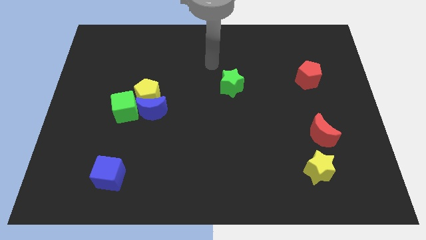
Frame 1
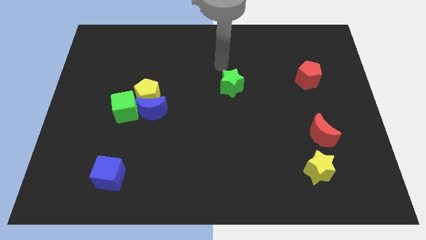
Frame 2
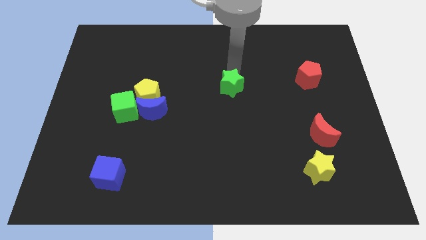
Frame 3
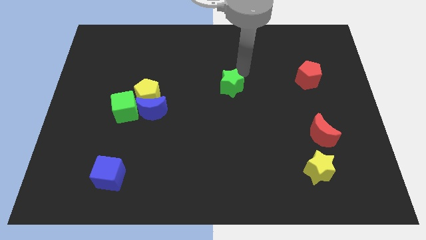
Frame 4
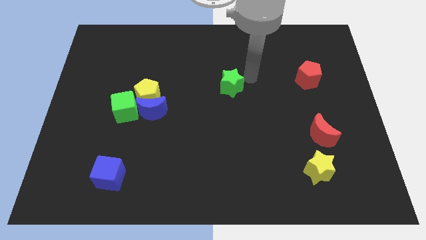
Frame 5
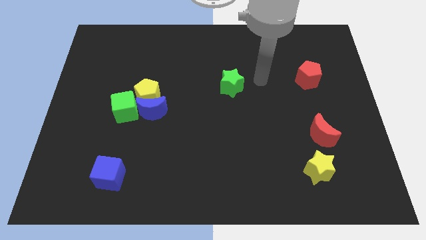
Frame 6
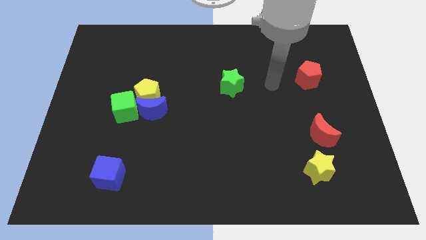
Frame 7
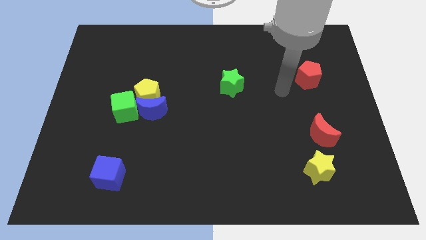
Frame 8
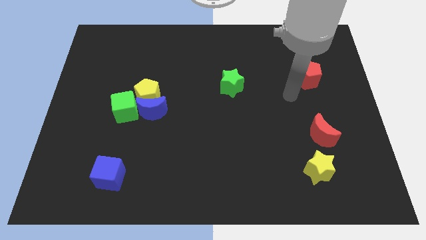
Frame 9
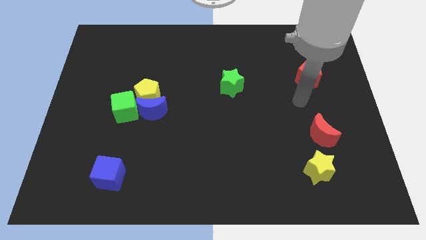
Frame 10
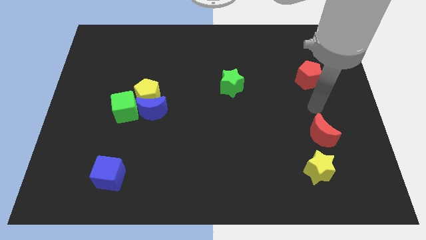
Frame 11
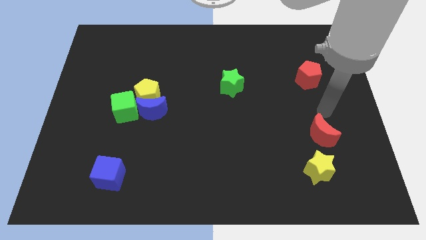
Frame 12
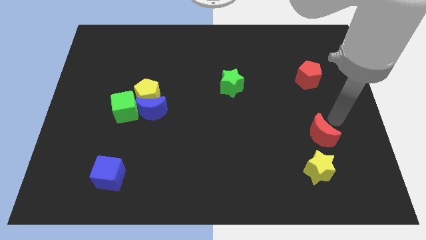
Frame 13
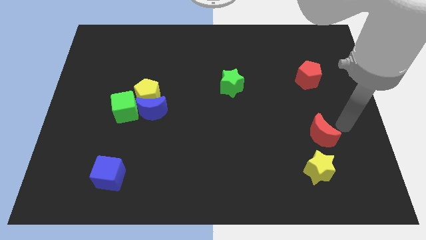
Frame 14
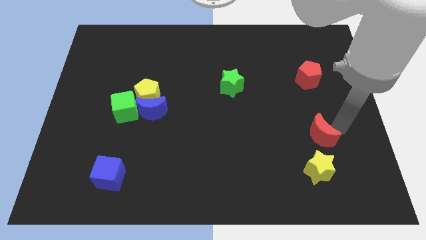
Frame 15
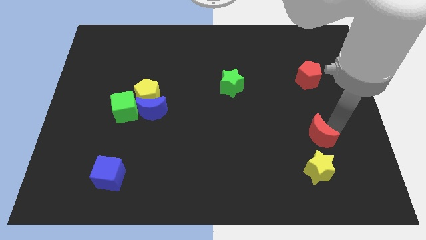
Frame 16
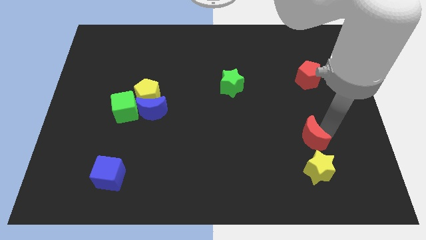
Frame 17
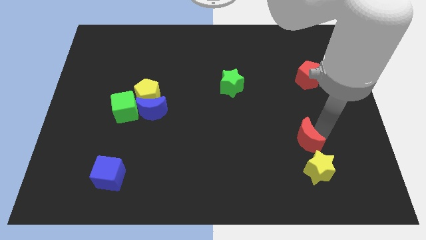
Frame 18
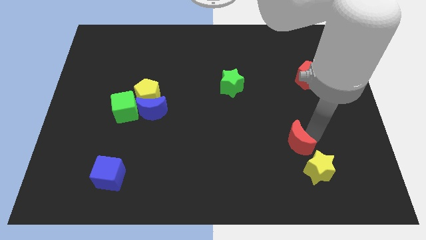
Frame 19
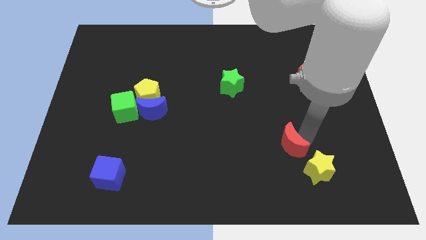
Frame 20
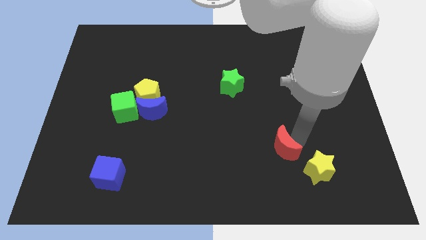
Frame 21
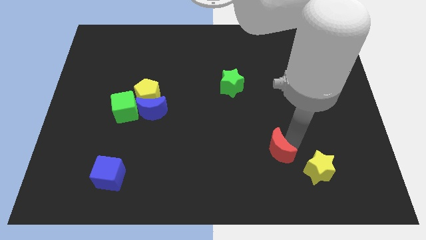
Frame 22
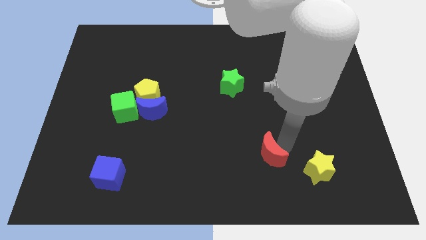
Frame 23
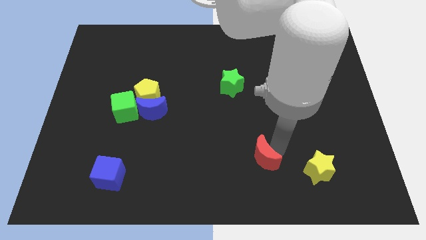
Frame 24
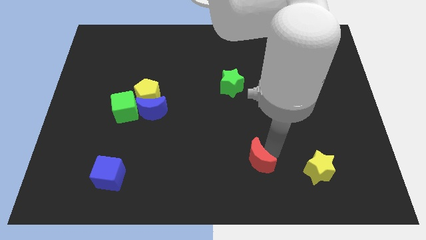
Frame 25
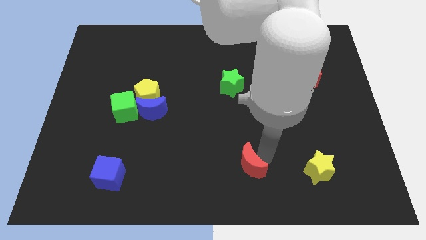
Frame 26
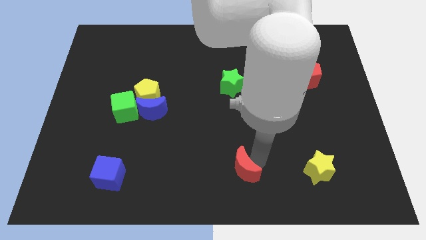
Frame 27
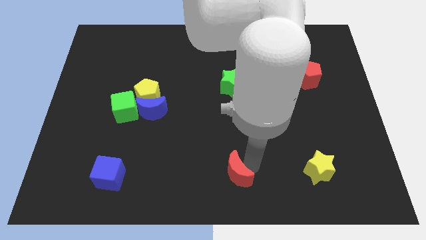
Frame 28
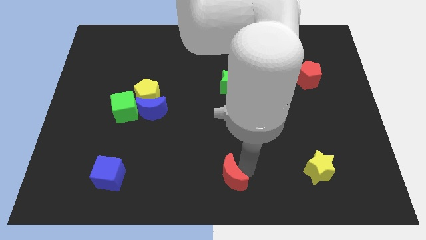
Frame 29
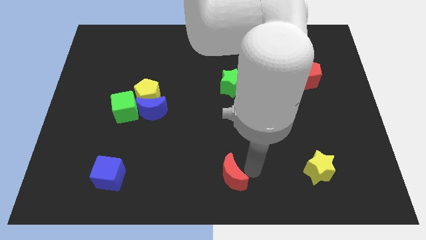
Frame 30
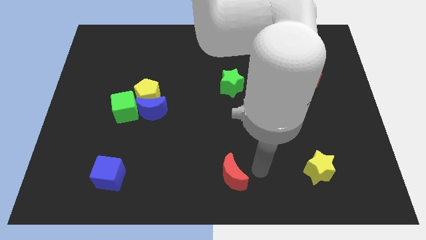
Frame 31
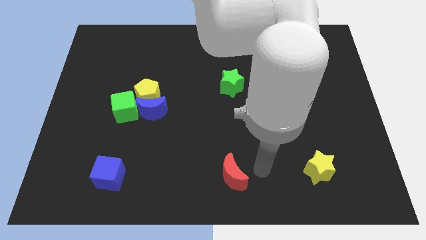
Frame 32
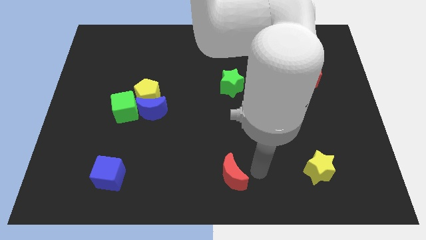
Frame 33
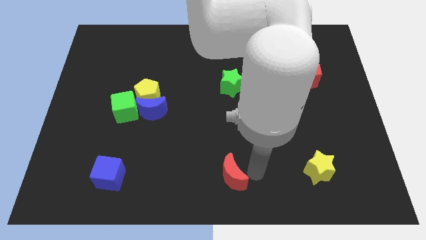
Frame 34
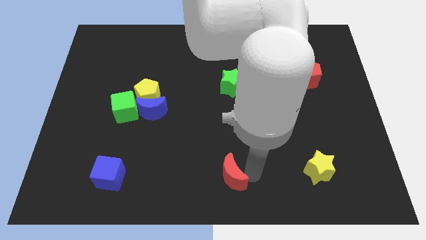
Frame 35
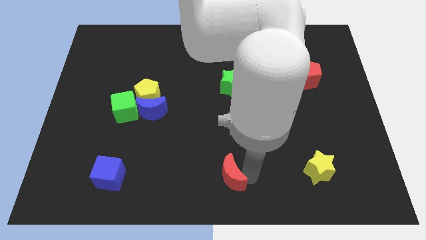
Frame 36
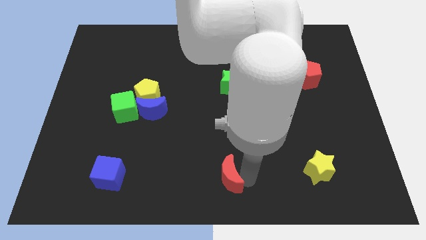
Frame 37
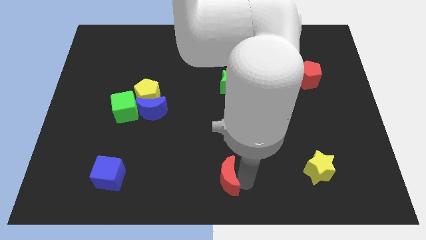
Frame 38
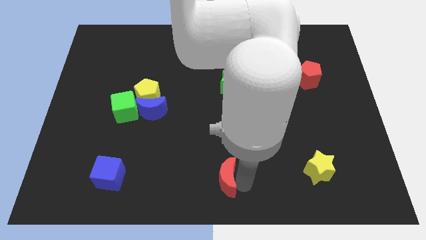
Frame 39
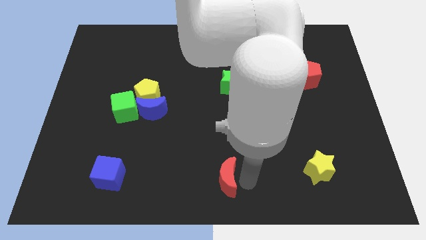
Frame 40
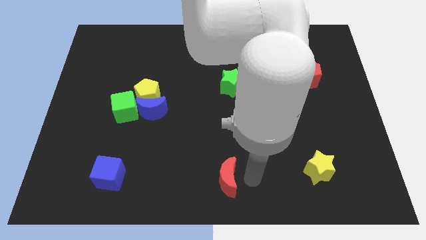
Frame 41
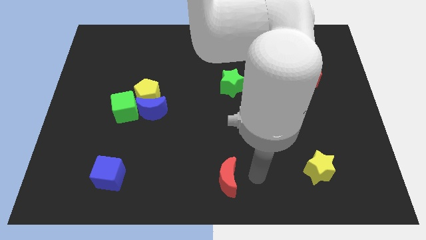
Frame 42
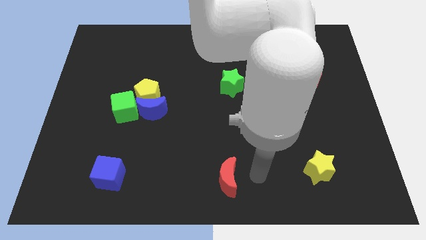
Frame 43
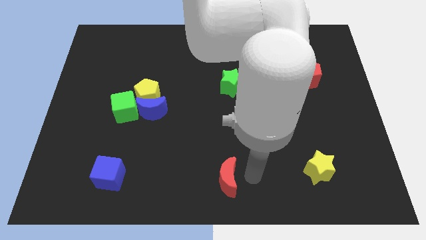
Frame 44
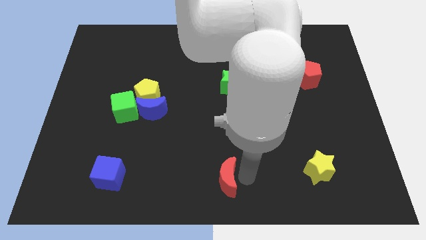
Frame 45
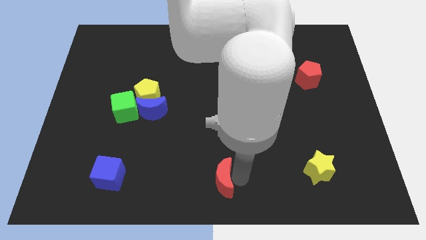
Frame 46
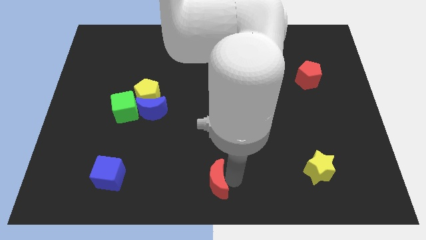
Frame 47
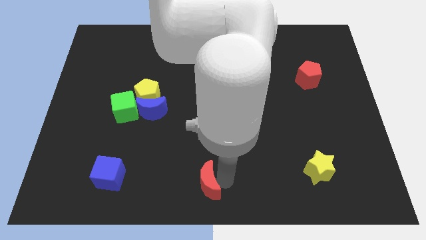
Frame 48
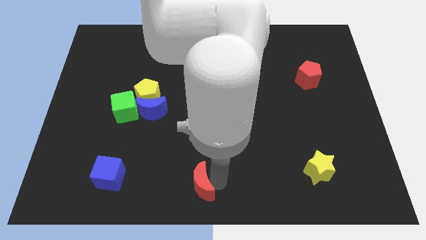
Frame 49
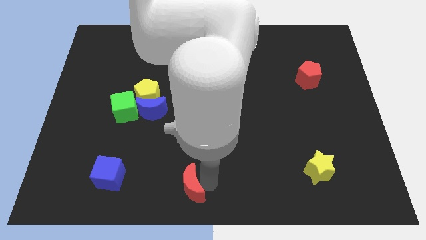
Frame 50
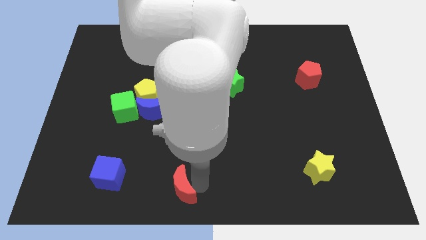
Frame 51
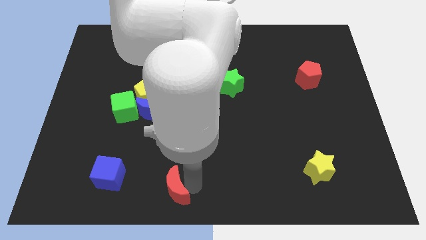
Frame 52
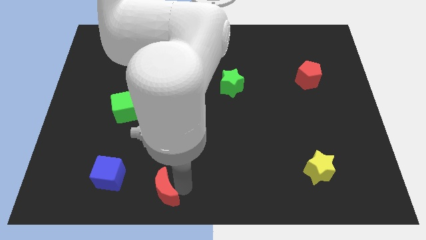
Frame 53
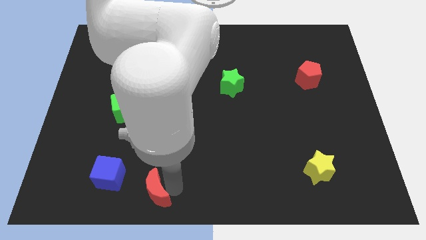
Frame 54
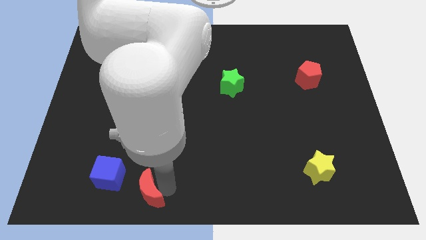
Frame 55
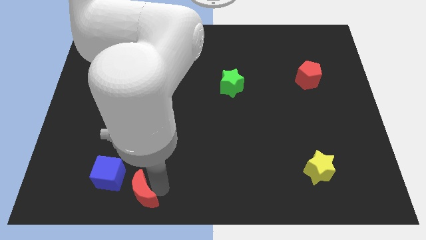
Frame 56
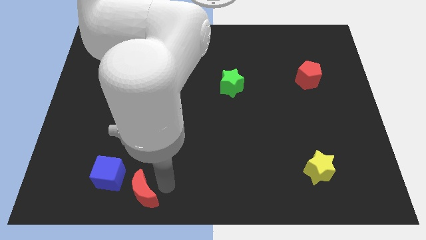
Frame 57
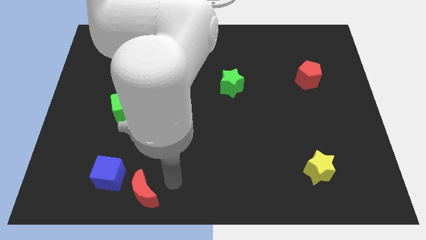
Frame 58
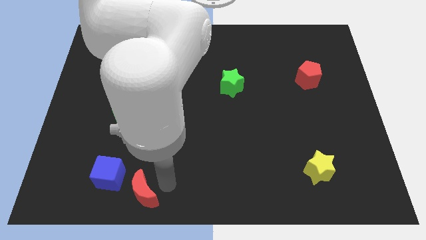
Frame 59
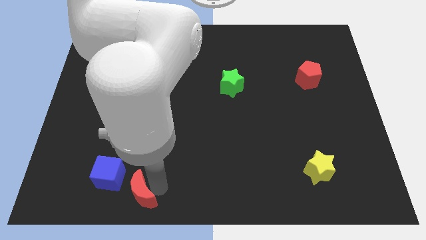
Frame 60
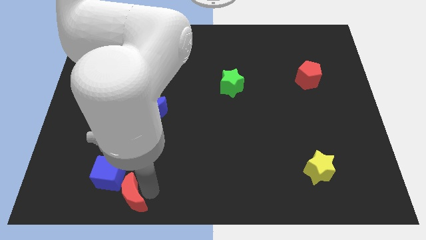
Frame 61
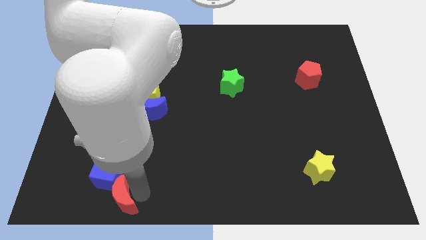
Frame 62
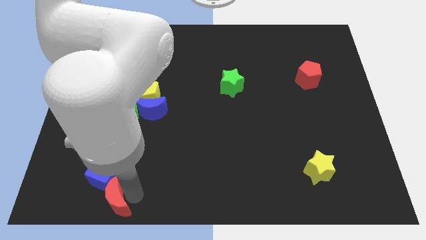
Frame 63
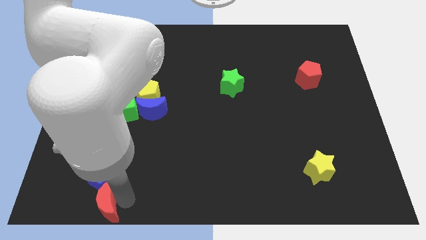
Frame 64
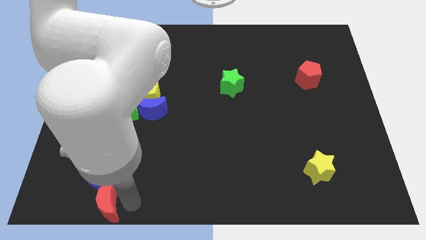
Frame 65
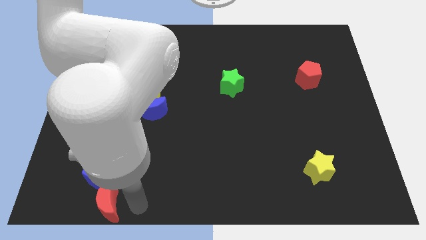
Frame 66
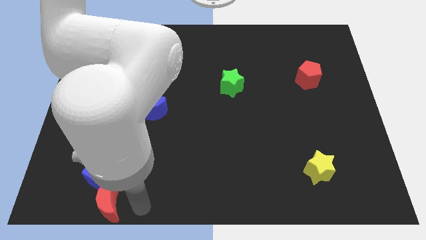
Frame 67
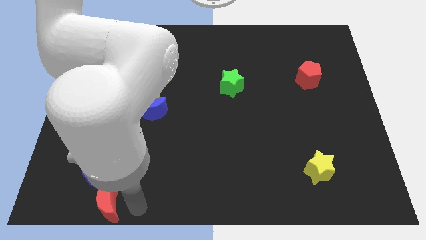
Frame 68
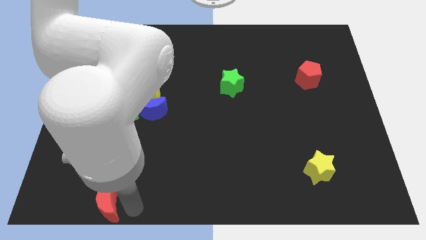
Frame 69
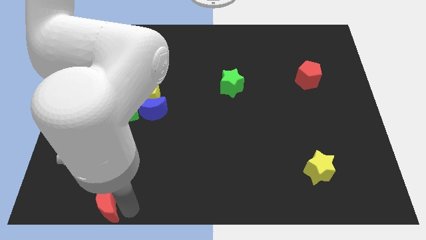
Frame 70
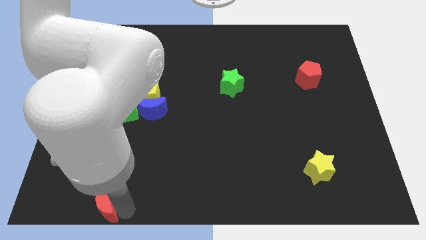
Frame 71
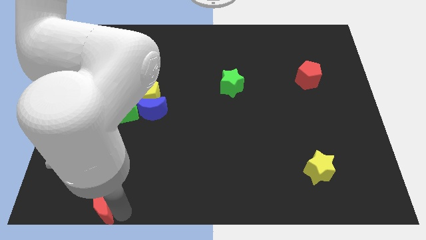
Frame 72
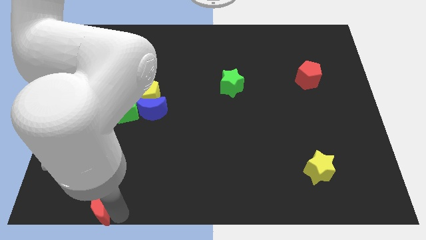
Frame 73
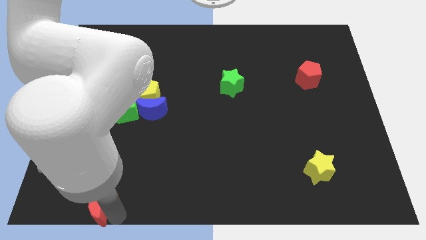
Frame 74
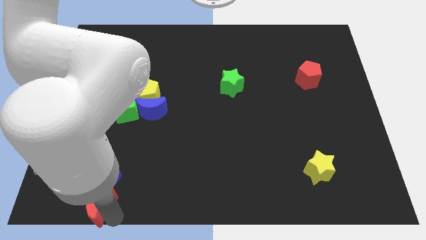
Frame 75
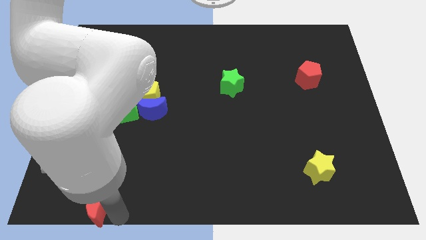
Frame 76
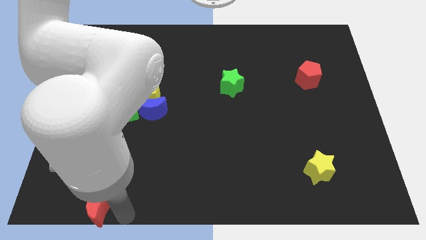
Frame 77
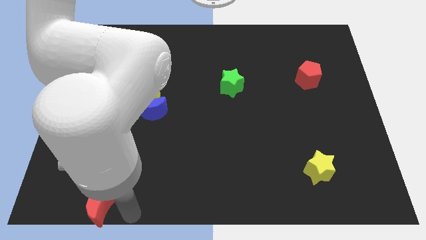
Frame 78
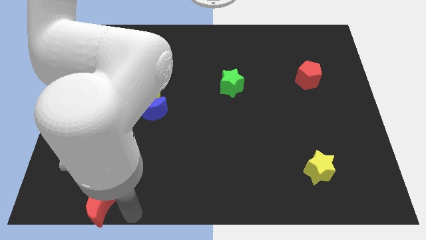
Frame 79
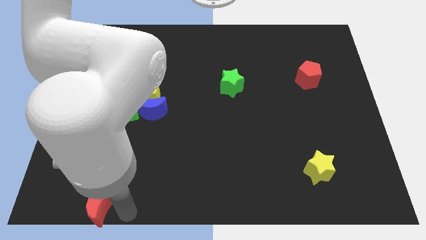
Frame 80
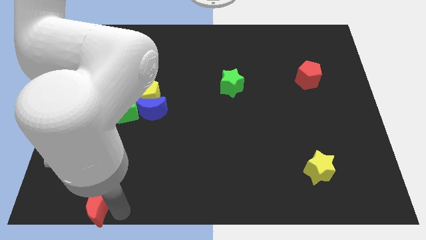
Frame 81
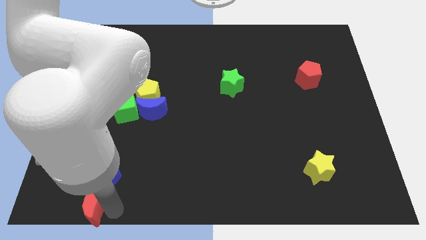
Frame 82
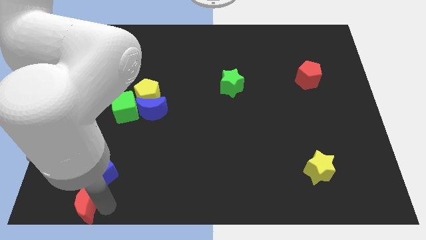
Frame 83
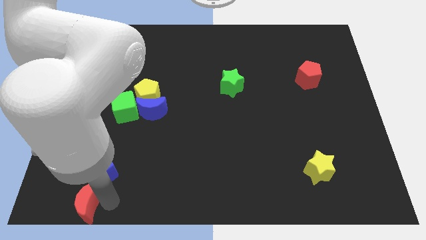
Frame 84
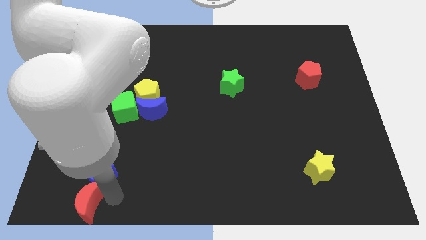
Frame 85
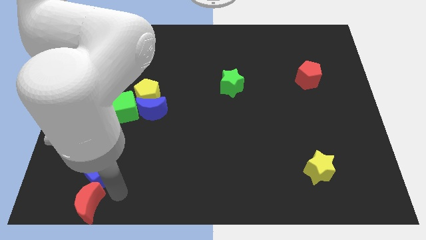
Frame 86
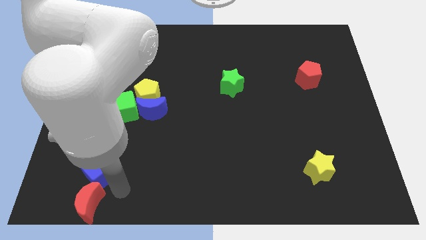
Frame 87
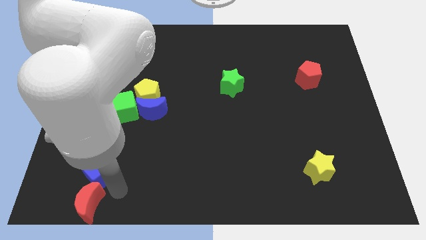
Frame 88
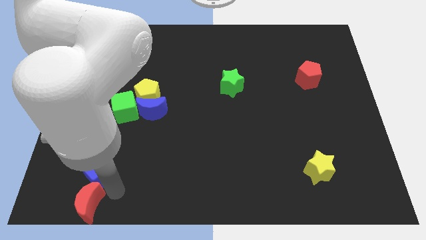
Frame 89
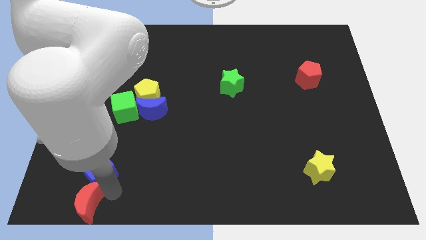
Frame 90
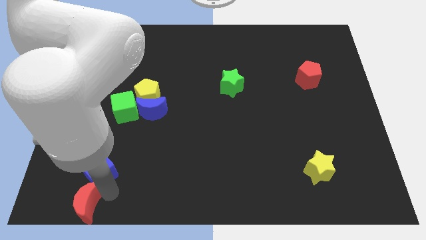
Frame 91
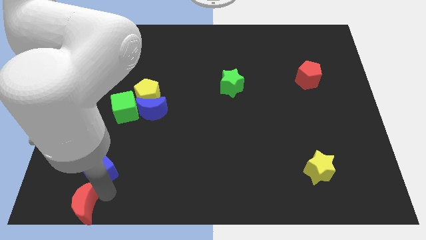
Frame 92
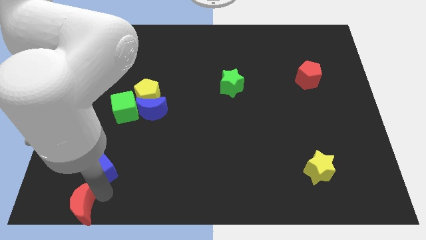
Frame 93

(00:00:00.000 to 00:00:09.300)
push the red moon to the bottom left corner
